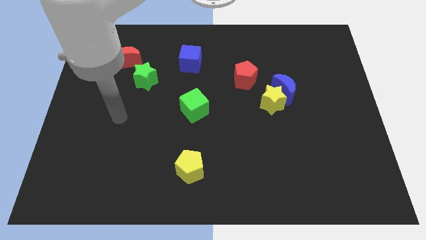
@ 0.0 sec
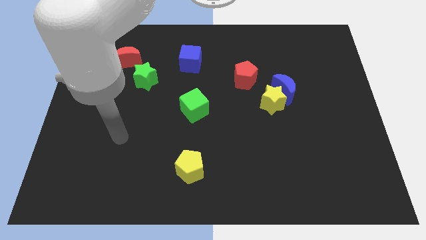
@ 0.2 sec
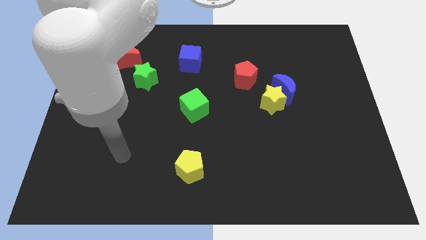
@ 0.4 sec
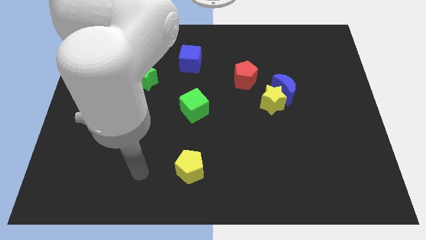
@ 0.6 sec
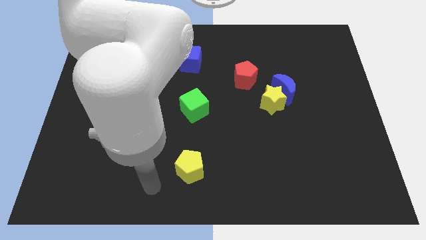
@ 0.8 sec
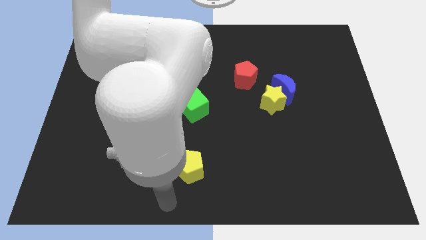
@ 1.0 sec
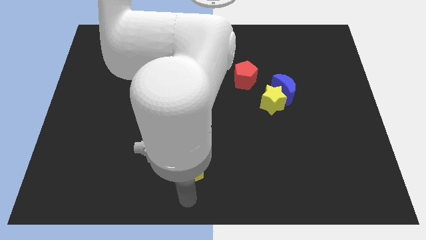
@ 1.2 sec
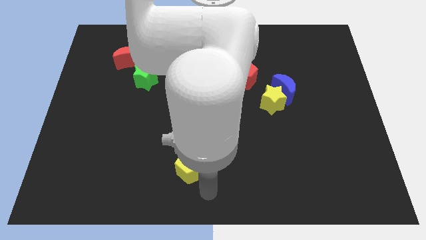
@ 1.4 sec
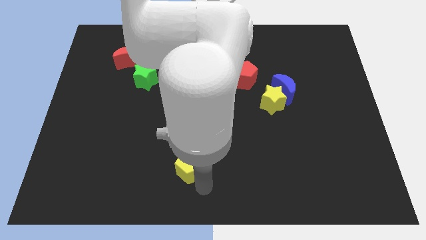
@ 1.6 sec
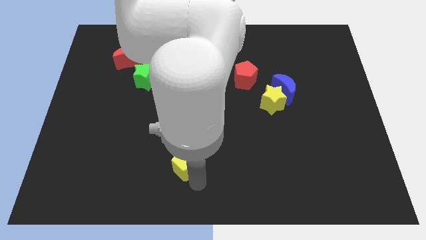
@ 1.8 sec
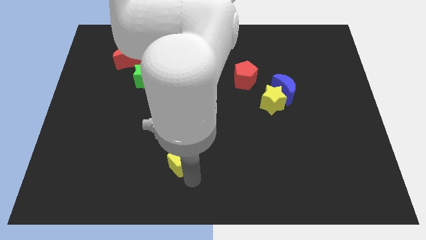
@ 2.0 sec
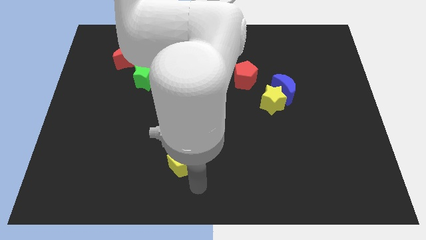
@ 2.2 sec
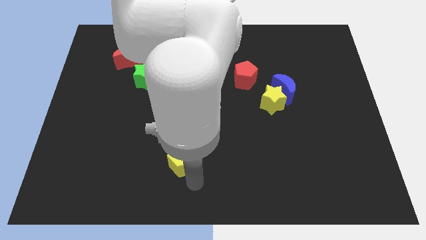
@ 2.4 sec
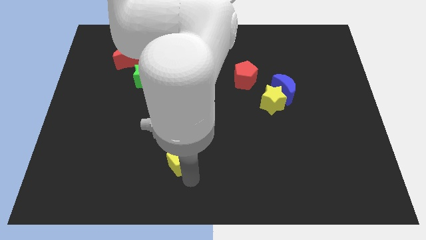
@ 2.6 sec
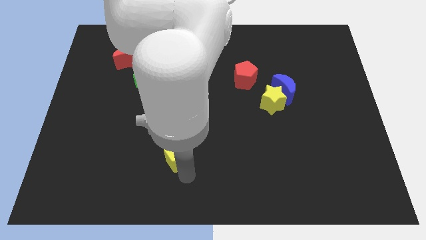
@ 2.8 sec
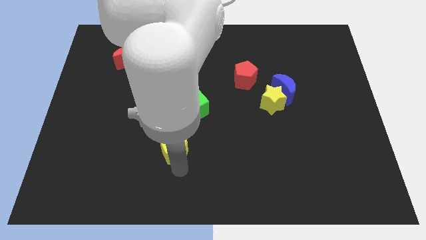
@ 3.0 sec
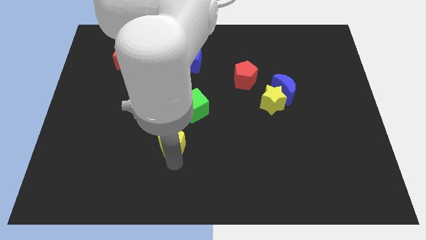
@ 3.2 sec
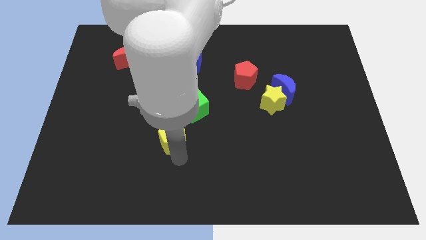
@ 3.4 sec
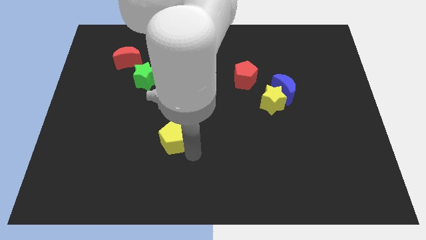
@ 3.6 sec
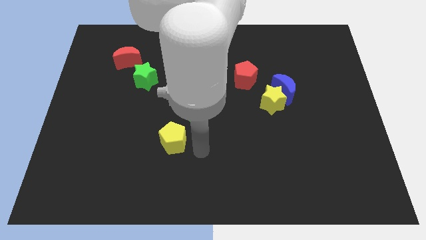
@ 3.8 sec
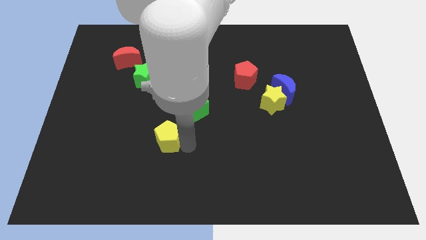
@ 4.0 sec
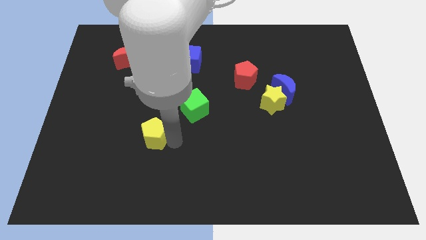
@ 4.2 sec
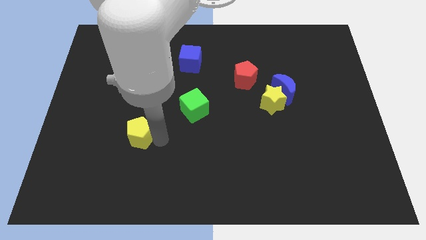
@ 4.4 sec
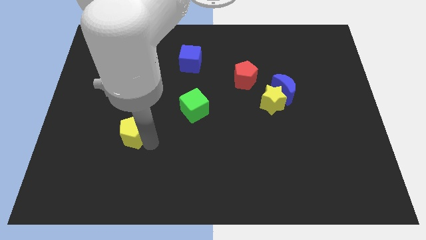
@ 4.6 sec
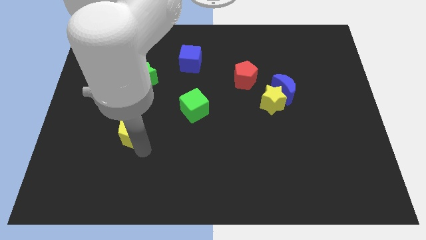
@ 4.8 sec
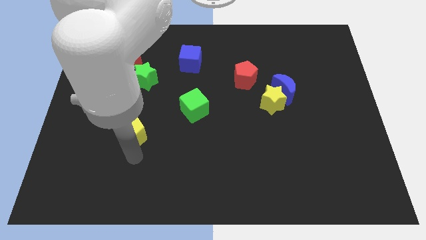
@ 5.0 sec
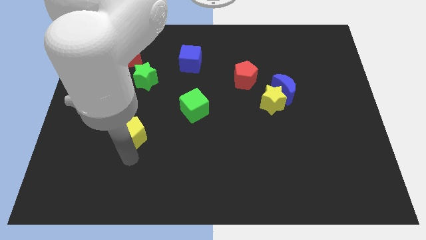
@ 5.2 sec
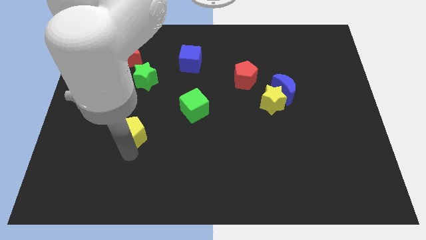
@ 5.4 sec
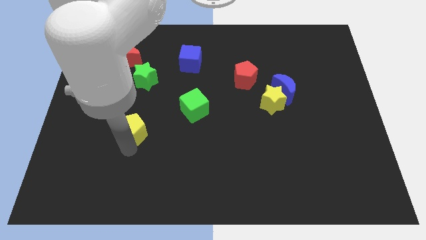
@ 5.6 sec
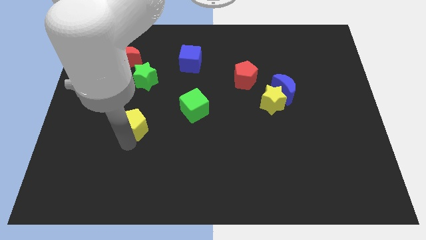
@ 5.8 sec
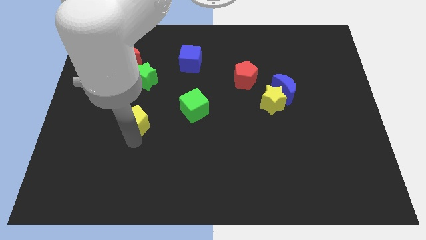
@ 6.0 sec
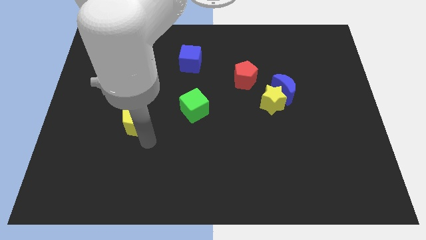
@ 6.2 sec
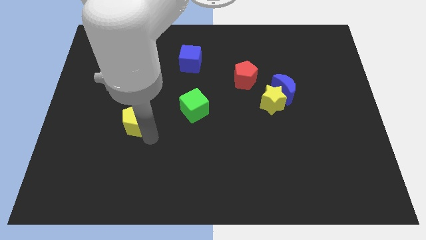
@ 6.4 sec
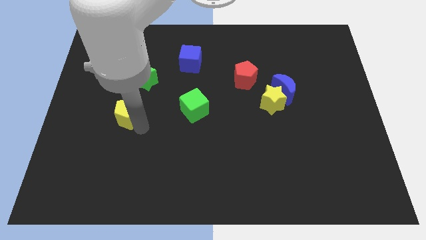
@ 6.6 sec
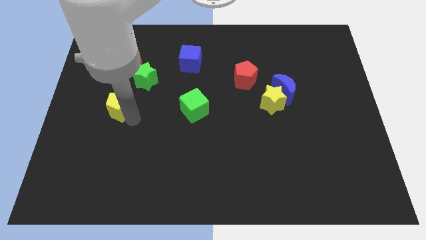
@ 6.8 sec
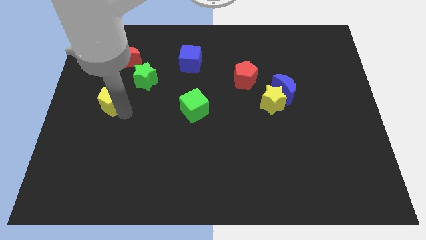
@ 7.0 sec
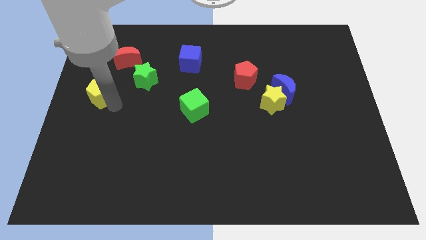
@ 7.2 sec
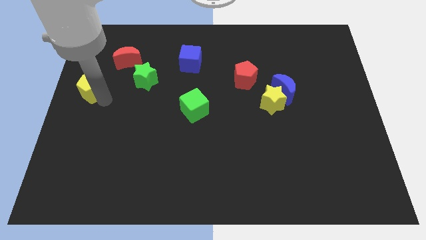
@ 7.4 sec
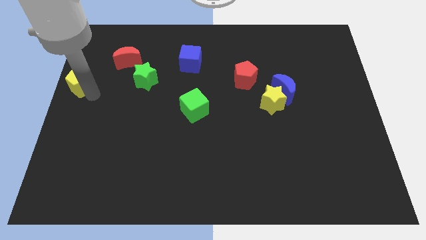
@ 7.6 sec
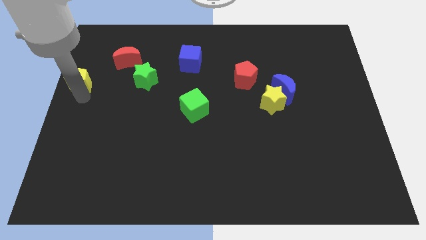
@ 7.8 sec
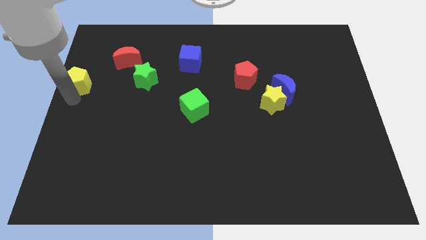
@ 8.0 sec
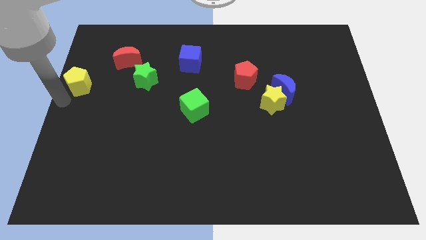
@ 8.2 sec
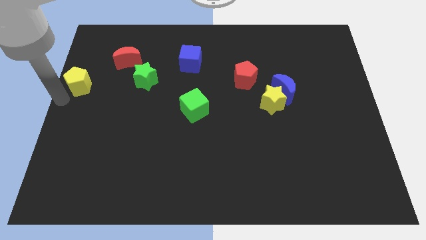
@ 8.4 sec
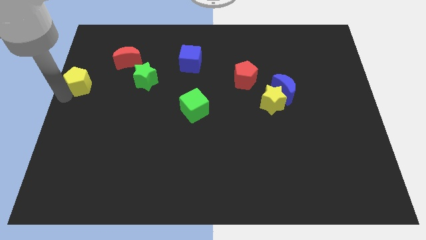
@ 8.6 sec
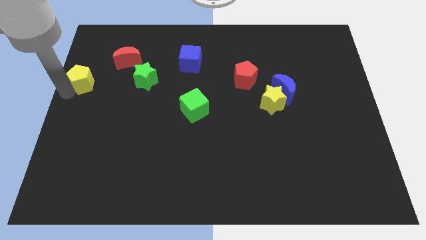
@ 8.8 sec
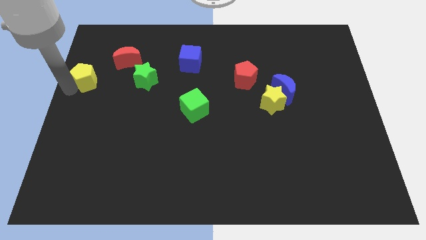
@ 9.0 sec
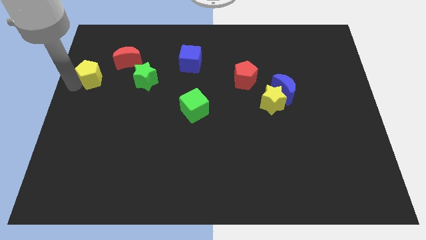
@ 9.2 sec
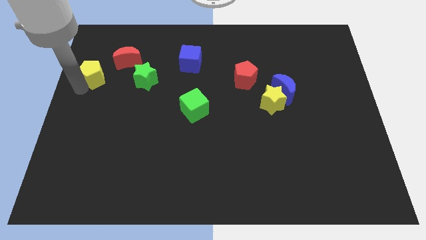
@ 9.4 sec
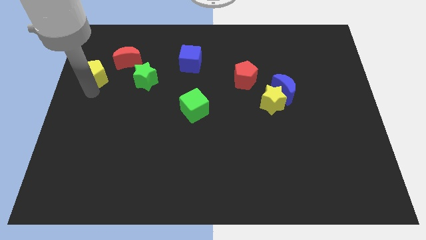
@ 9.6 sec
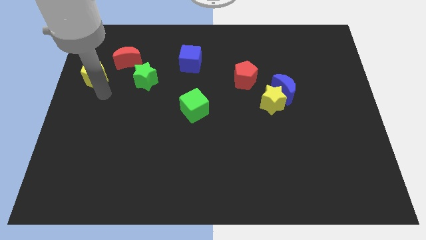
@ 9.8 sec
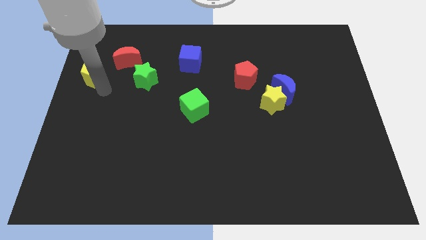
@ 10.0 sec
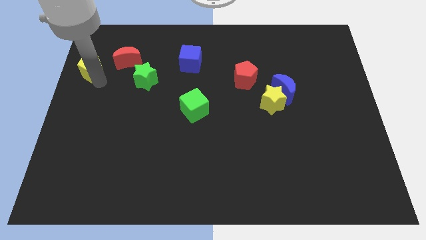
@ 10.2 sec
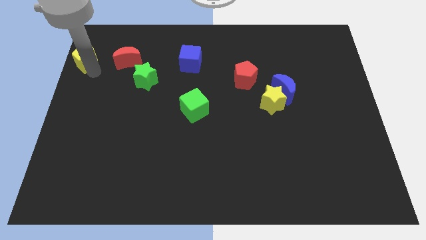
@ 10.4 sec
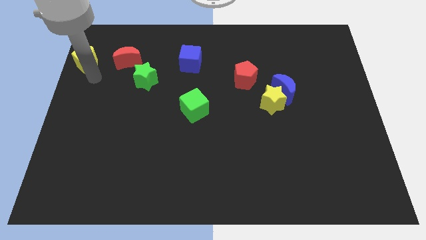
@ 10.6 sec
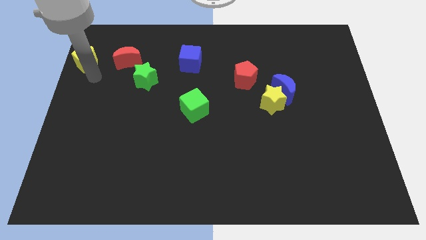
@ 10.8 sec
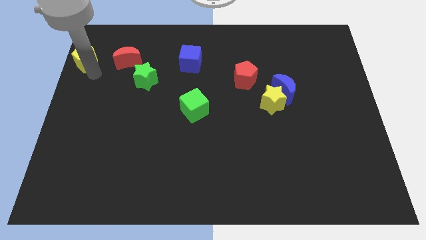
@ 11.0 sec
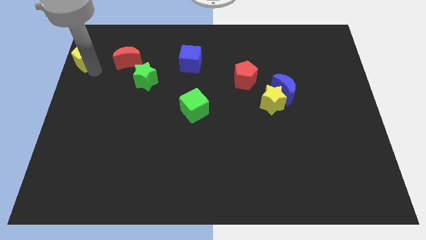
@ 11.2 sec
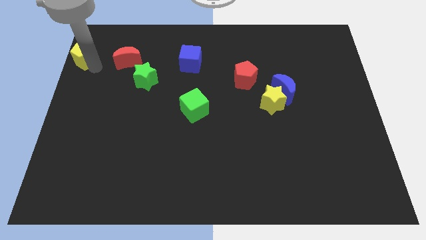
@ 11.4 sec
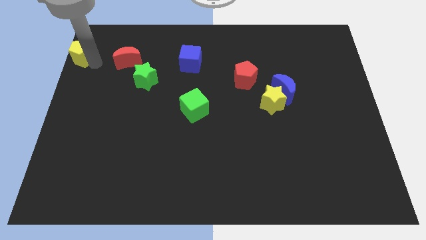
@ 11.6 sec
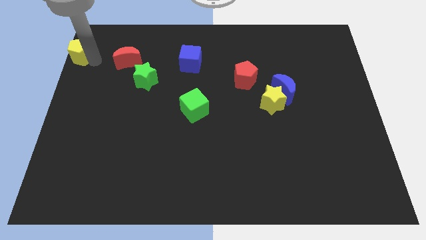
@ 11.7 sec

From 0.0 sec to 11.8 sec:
put the yellow pentagon to the top left
